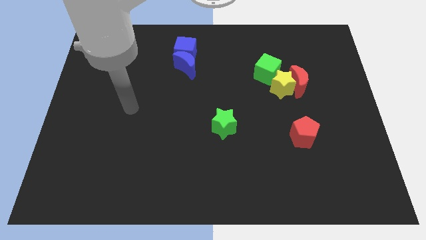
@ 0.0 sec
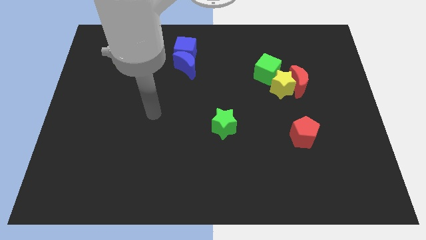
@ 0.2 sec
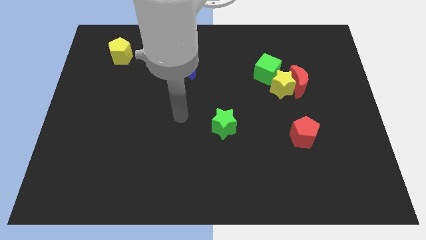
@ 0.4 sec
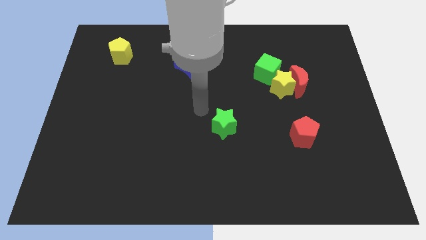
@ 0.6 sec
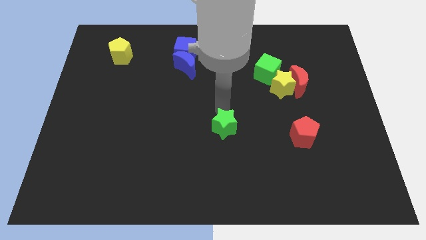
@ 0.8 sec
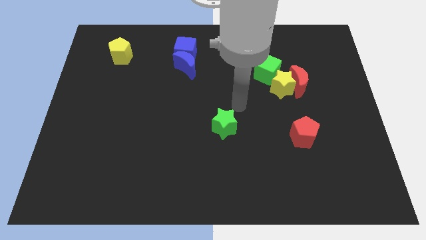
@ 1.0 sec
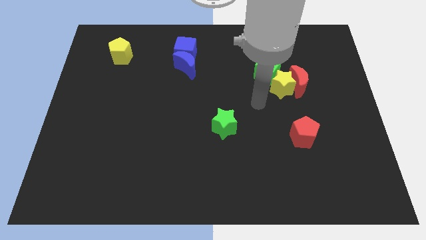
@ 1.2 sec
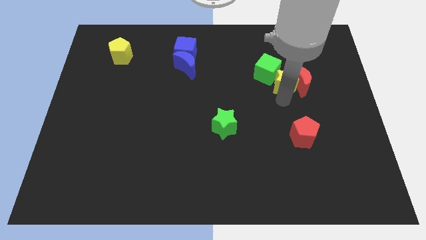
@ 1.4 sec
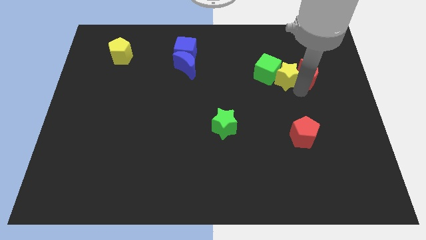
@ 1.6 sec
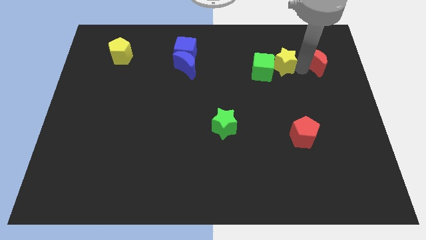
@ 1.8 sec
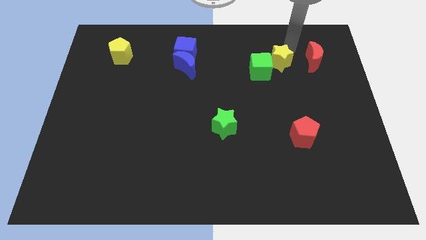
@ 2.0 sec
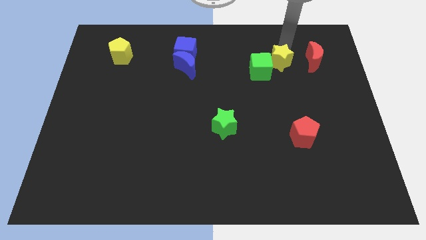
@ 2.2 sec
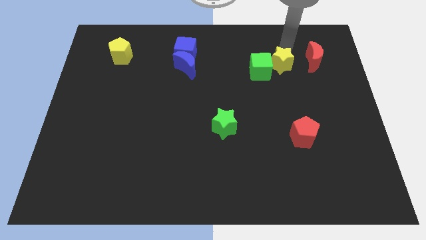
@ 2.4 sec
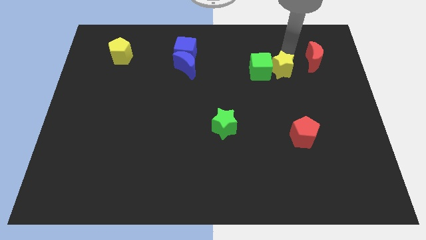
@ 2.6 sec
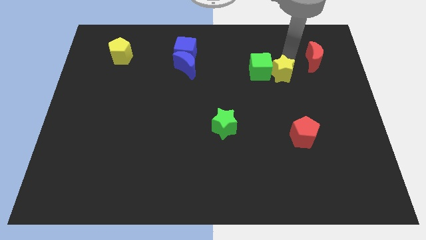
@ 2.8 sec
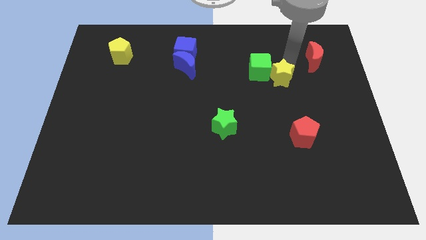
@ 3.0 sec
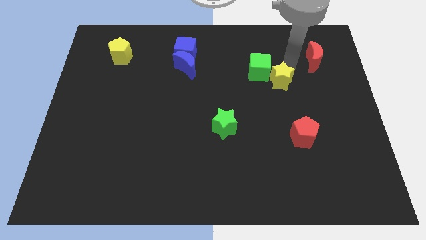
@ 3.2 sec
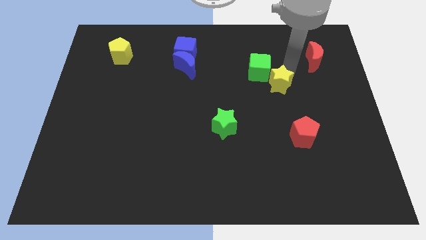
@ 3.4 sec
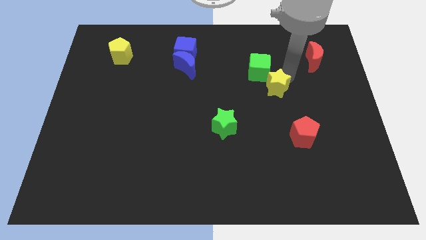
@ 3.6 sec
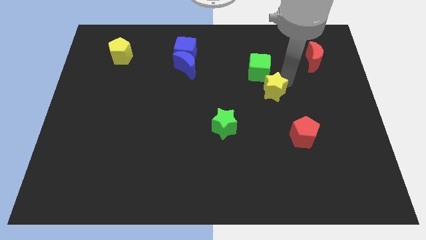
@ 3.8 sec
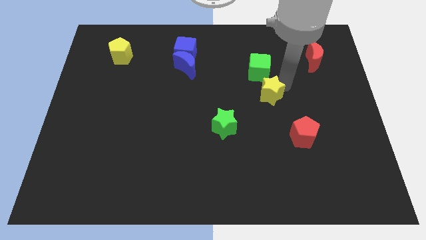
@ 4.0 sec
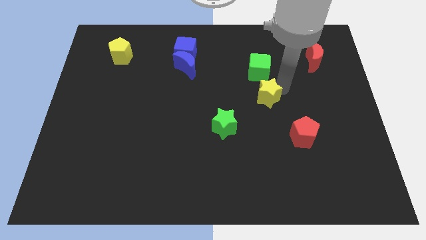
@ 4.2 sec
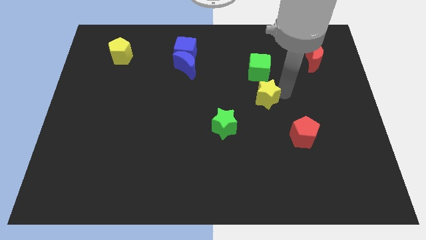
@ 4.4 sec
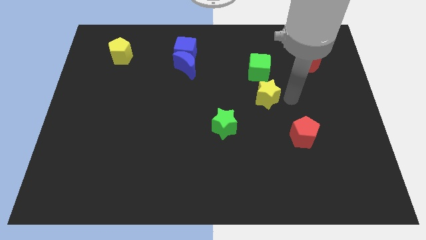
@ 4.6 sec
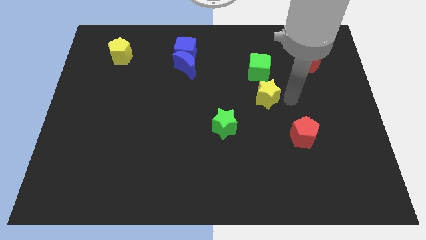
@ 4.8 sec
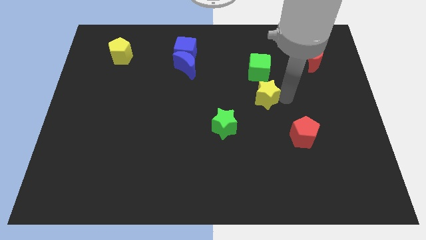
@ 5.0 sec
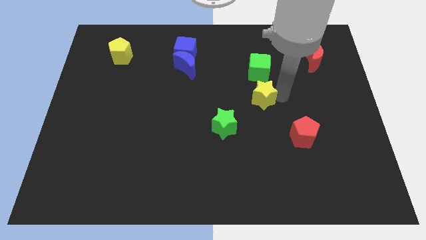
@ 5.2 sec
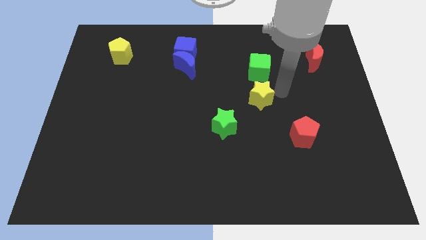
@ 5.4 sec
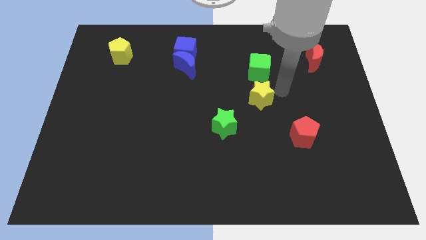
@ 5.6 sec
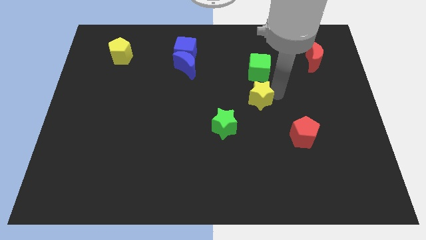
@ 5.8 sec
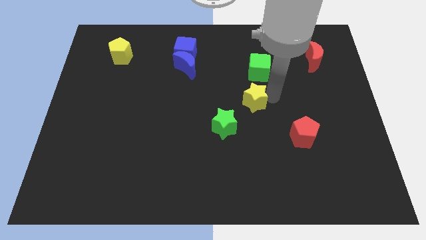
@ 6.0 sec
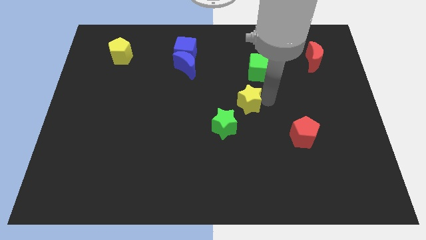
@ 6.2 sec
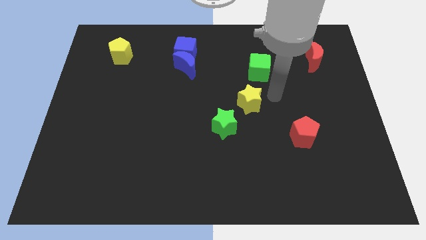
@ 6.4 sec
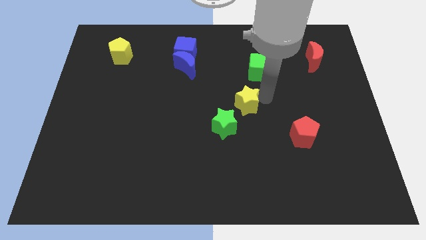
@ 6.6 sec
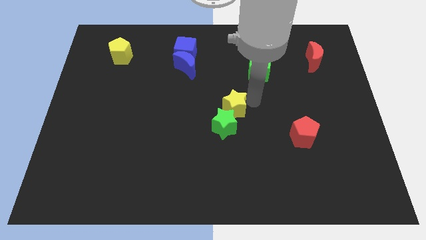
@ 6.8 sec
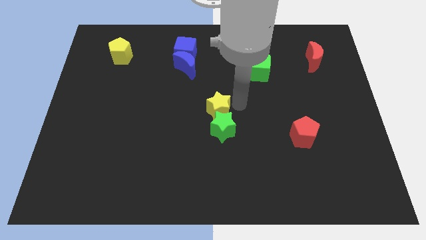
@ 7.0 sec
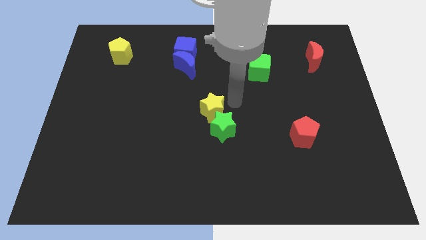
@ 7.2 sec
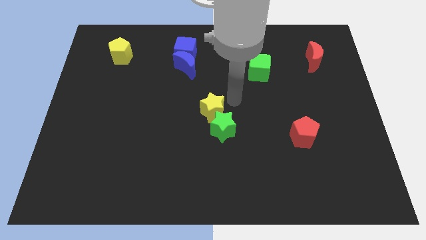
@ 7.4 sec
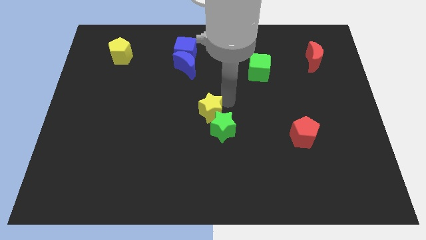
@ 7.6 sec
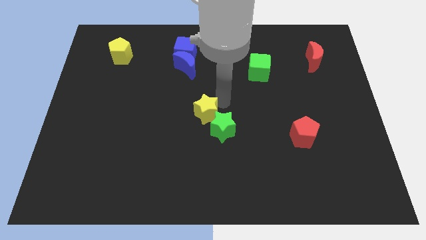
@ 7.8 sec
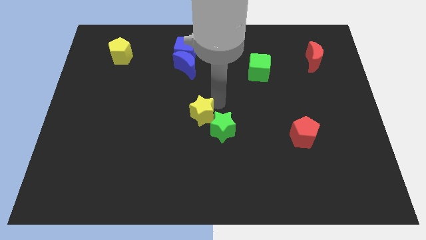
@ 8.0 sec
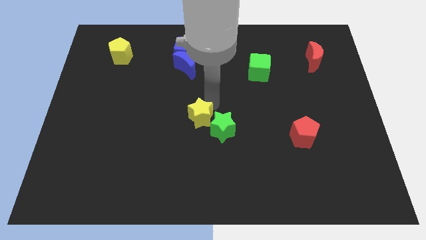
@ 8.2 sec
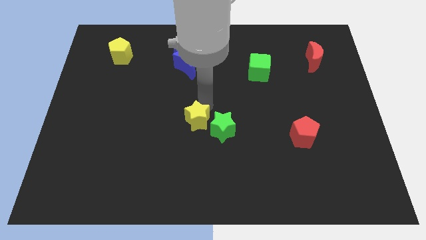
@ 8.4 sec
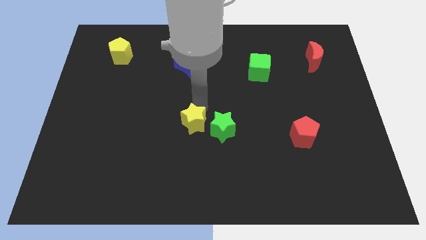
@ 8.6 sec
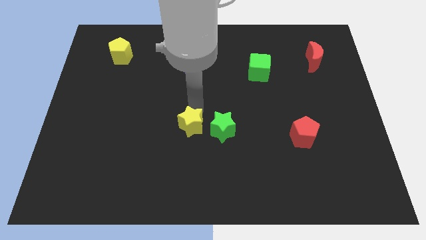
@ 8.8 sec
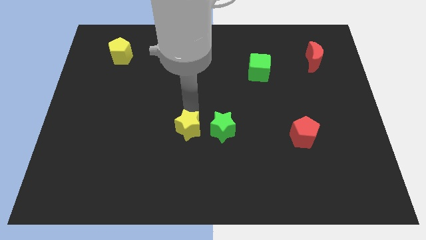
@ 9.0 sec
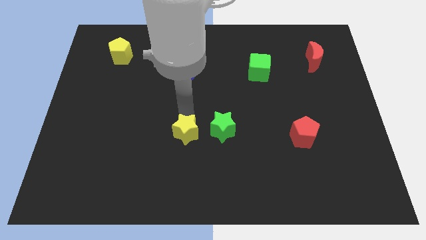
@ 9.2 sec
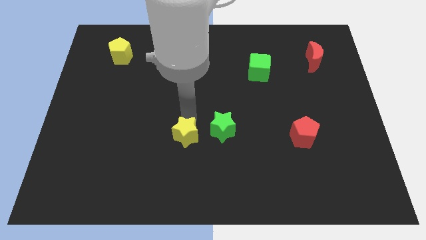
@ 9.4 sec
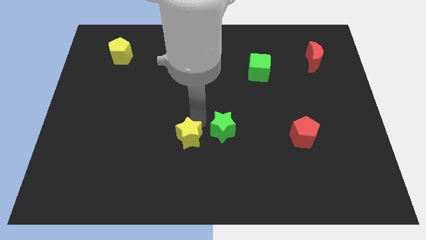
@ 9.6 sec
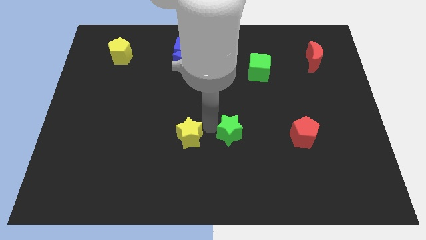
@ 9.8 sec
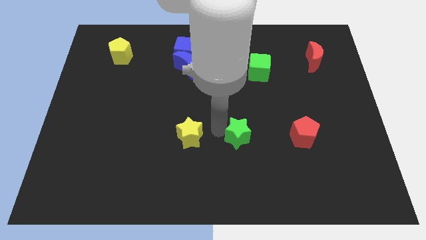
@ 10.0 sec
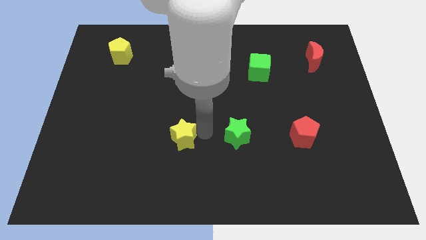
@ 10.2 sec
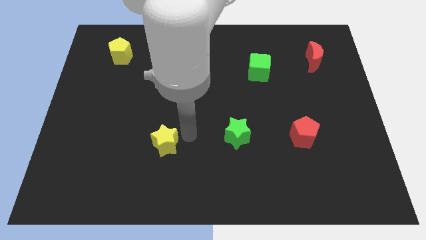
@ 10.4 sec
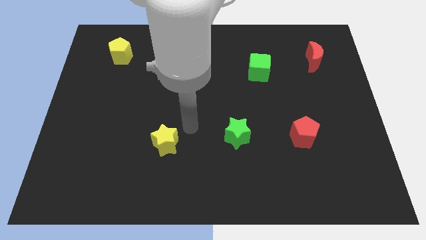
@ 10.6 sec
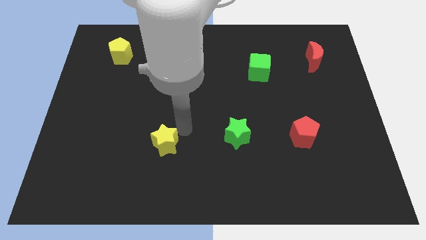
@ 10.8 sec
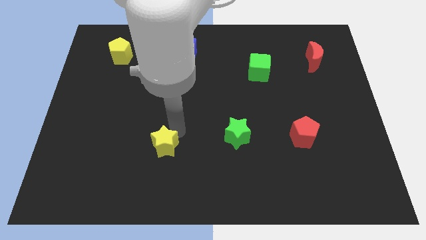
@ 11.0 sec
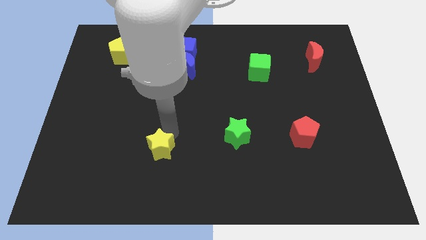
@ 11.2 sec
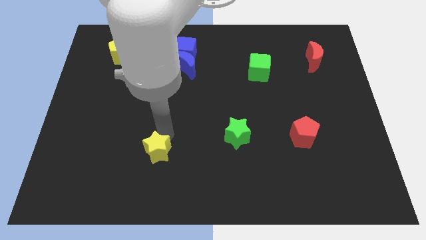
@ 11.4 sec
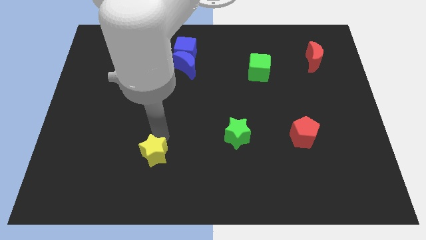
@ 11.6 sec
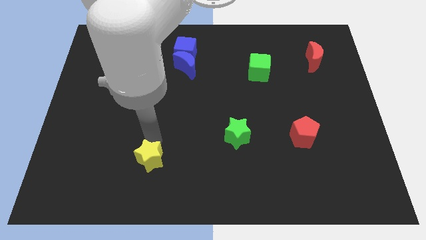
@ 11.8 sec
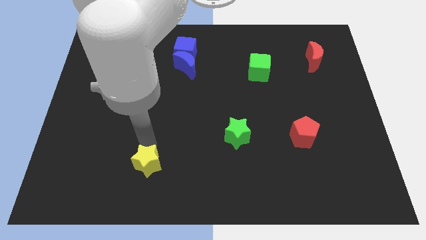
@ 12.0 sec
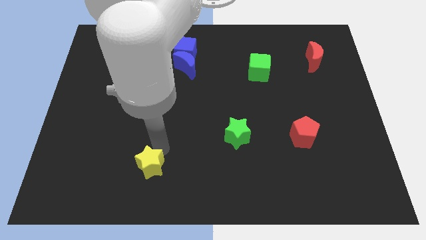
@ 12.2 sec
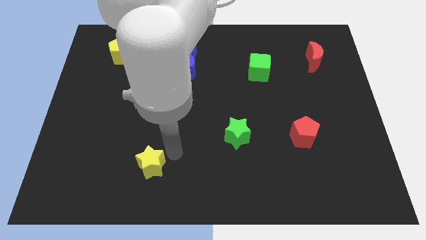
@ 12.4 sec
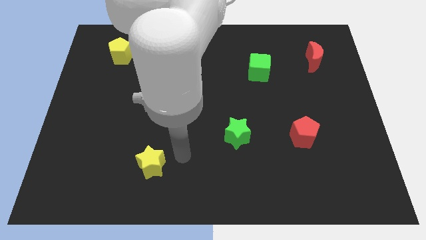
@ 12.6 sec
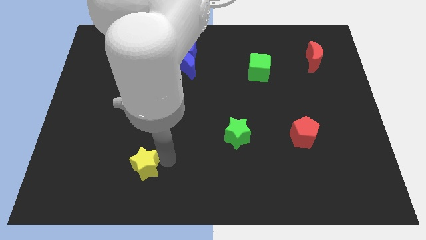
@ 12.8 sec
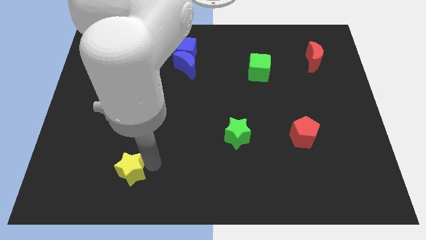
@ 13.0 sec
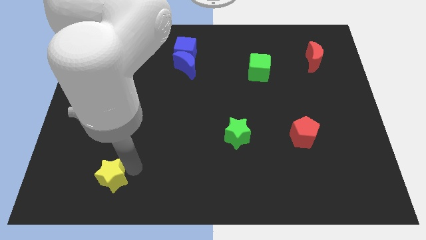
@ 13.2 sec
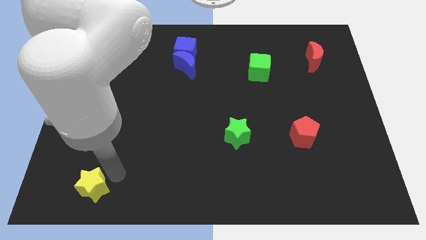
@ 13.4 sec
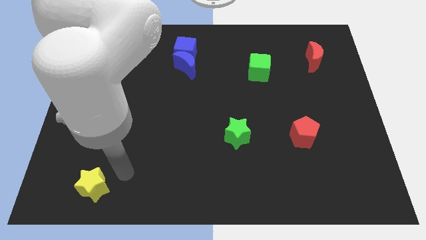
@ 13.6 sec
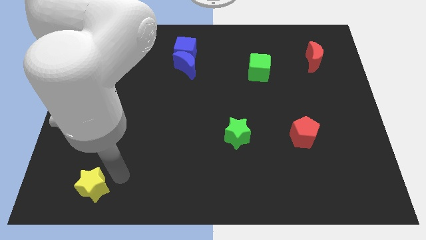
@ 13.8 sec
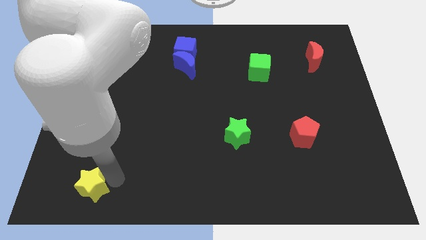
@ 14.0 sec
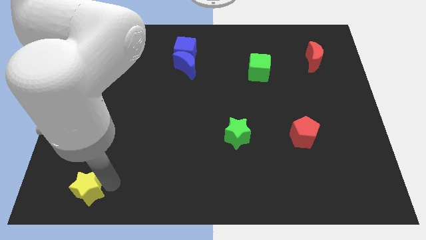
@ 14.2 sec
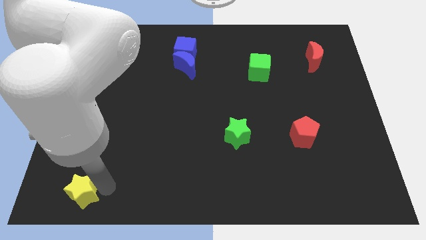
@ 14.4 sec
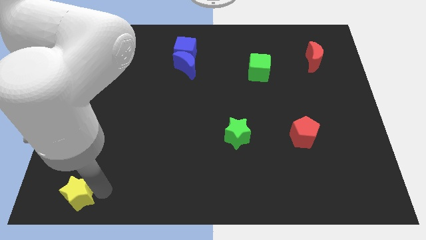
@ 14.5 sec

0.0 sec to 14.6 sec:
put the yellow star to the bottom left

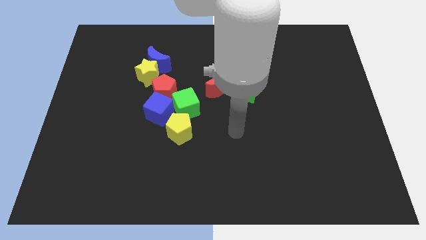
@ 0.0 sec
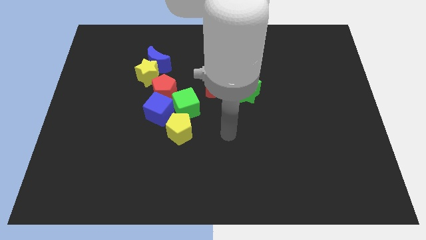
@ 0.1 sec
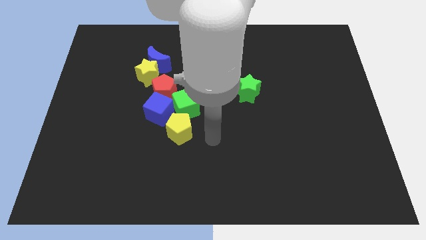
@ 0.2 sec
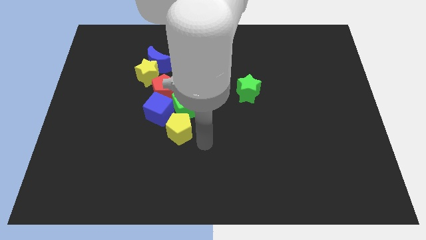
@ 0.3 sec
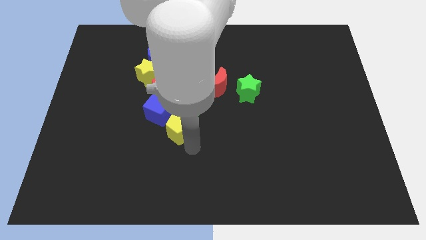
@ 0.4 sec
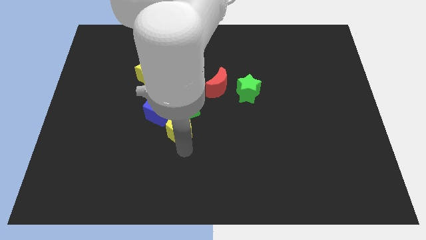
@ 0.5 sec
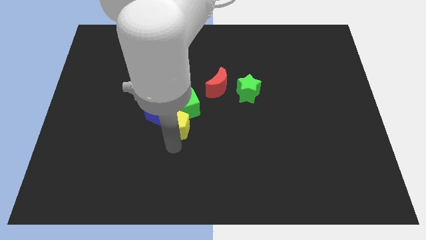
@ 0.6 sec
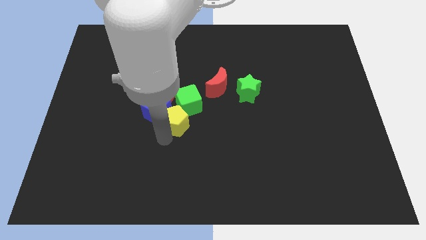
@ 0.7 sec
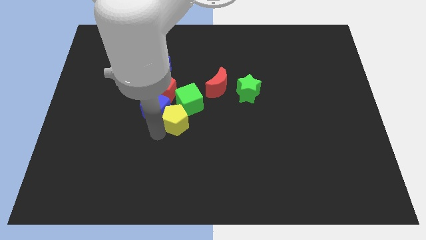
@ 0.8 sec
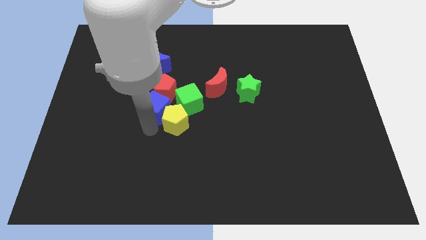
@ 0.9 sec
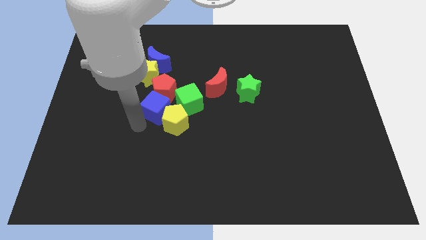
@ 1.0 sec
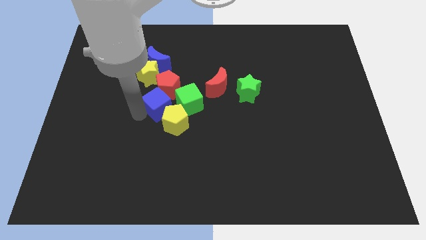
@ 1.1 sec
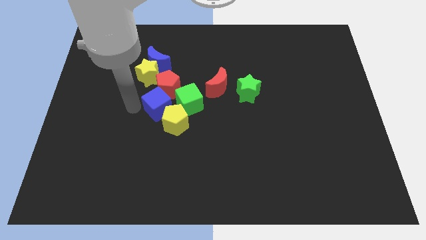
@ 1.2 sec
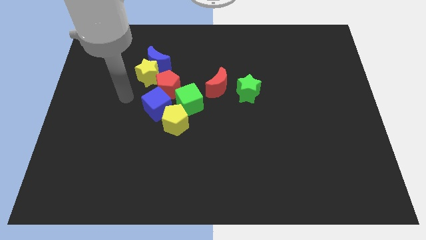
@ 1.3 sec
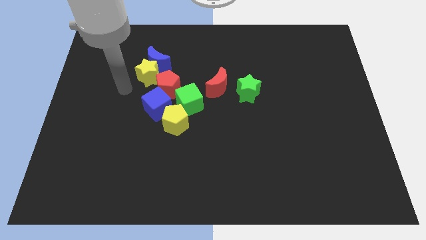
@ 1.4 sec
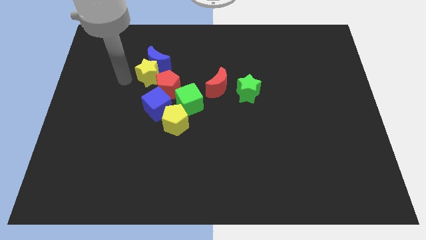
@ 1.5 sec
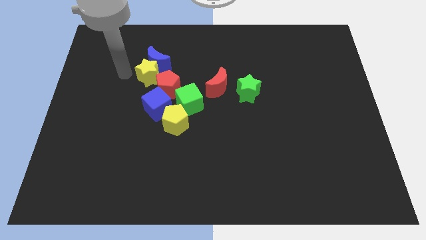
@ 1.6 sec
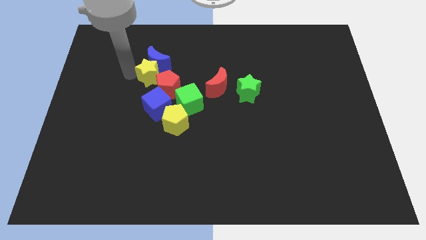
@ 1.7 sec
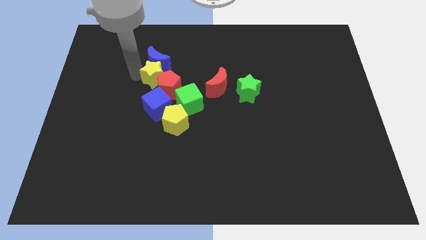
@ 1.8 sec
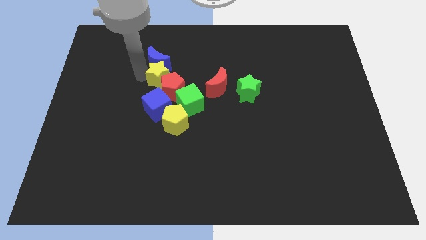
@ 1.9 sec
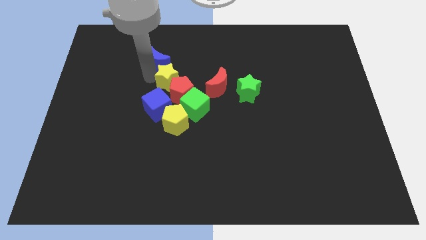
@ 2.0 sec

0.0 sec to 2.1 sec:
push the yellow star to the middle
